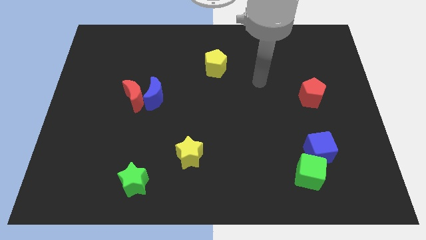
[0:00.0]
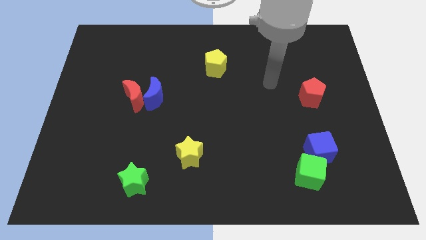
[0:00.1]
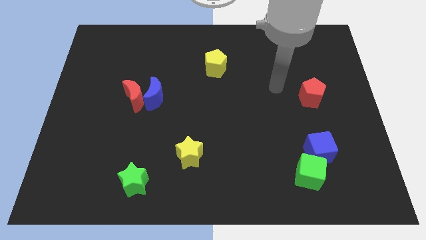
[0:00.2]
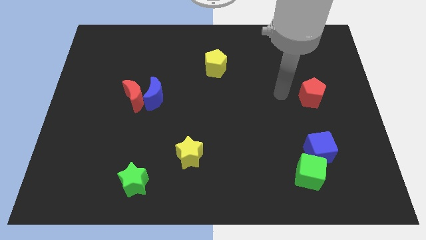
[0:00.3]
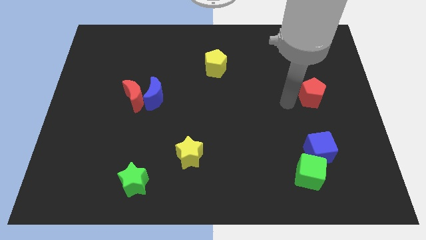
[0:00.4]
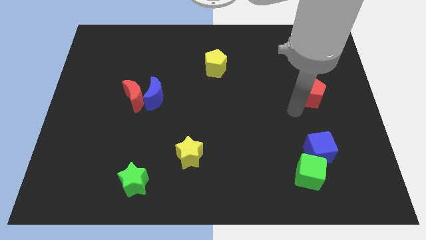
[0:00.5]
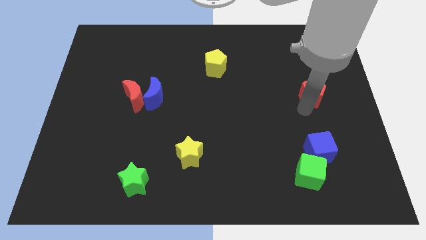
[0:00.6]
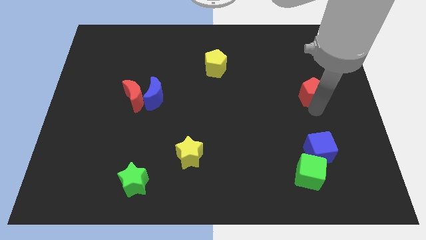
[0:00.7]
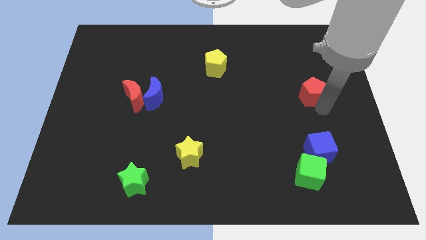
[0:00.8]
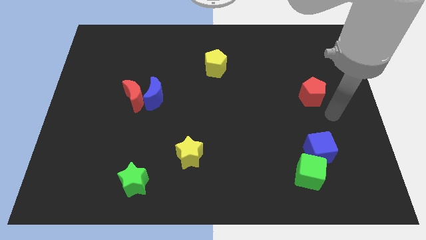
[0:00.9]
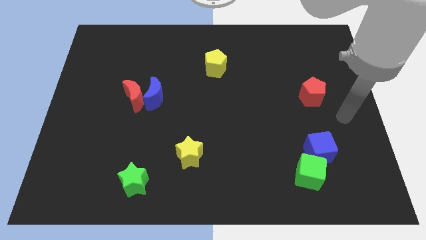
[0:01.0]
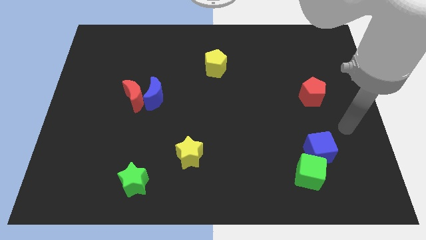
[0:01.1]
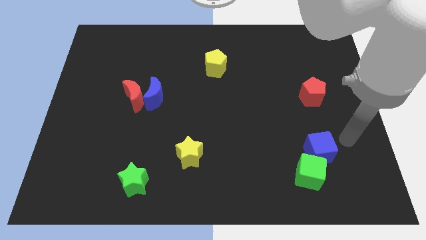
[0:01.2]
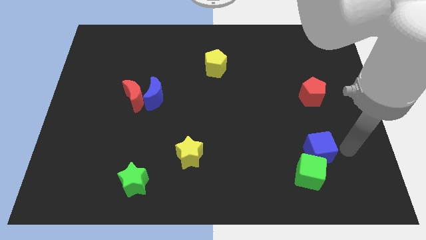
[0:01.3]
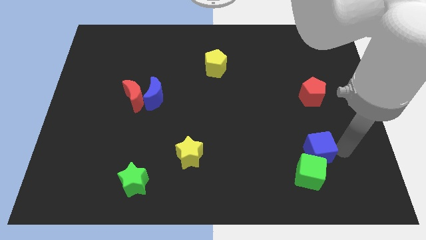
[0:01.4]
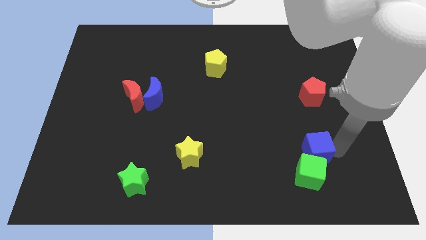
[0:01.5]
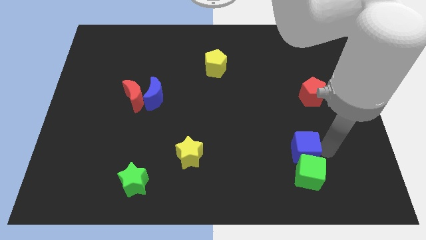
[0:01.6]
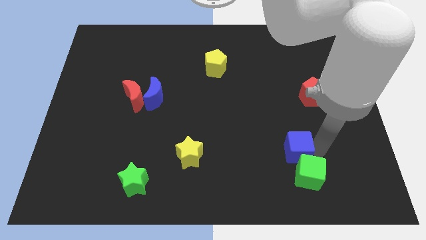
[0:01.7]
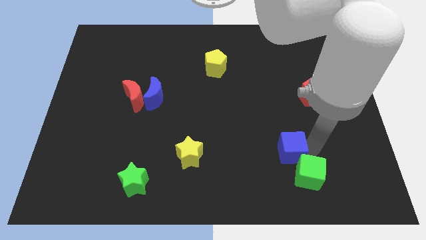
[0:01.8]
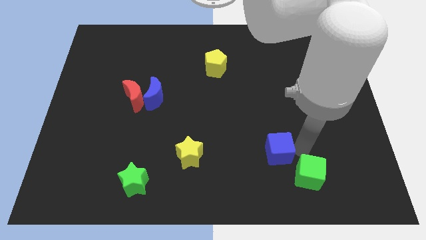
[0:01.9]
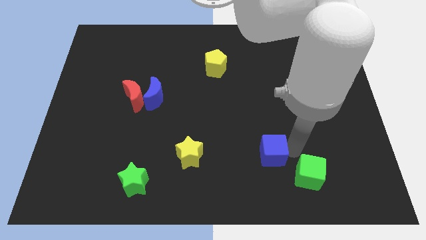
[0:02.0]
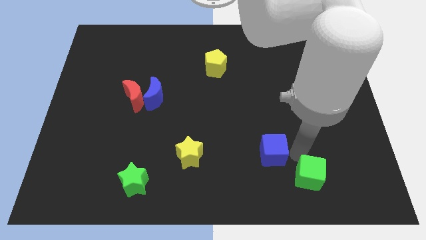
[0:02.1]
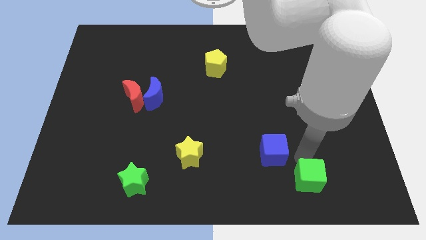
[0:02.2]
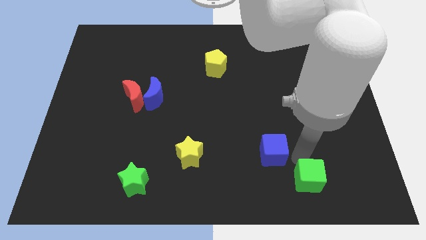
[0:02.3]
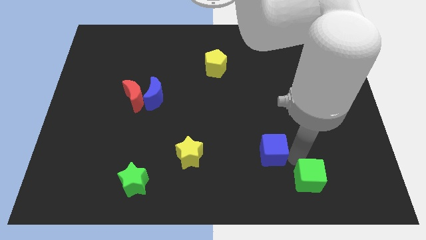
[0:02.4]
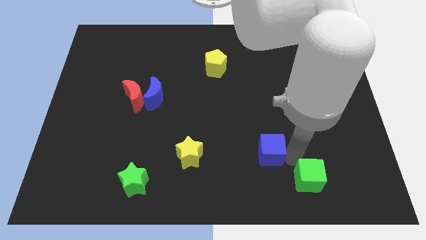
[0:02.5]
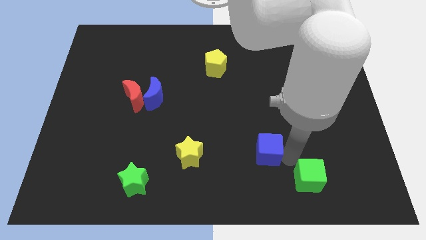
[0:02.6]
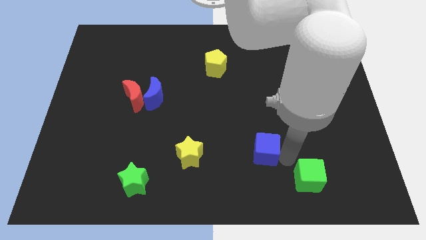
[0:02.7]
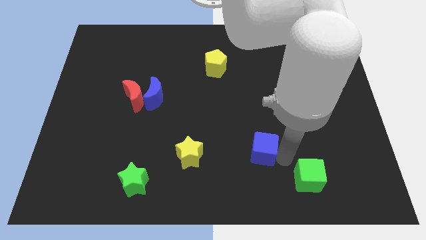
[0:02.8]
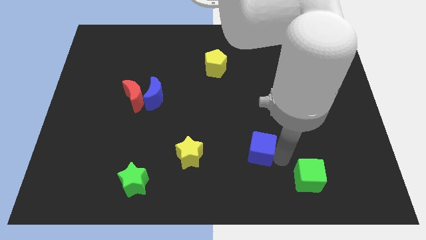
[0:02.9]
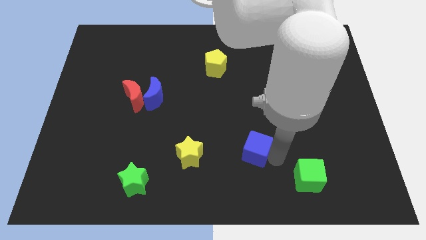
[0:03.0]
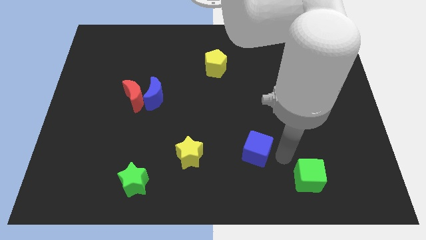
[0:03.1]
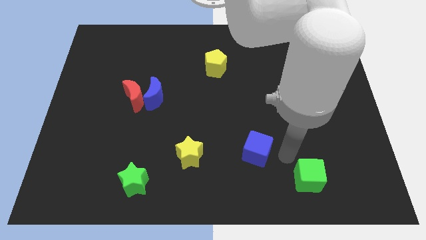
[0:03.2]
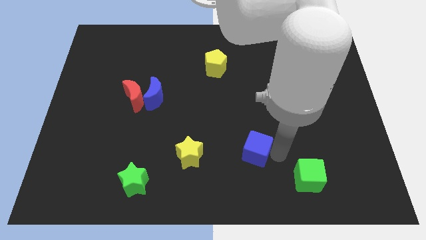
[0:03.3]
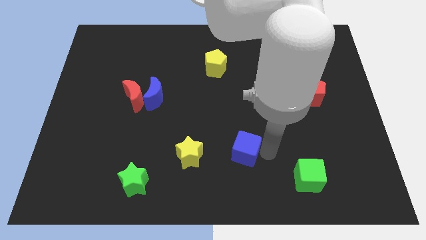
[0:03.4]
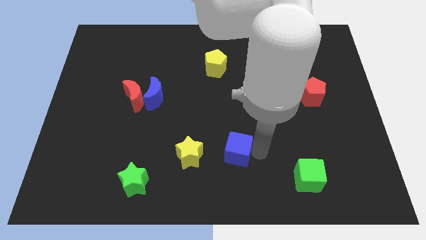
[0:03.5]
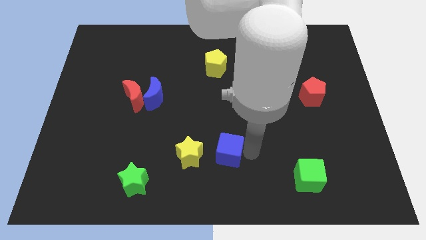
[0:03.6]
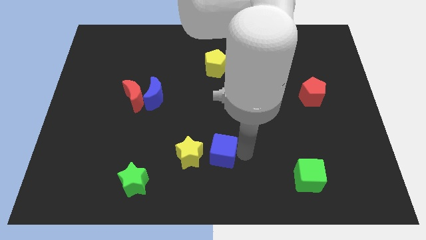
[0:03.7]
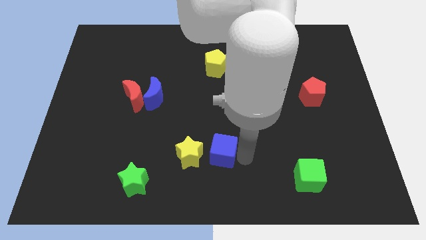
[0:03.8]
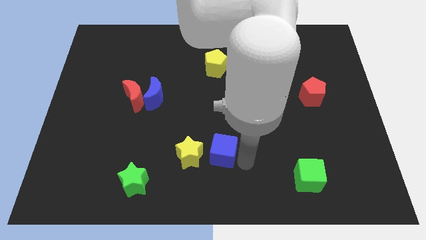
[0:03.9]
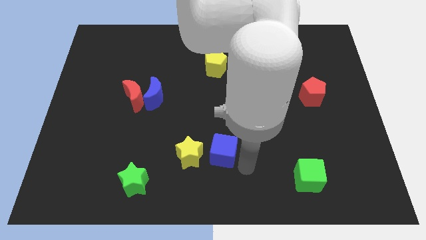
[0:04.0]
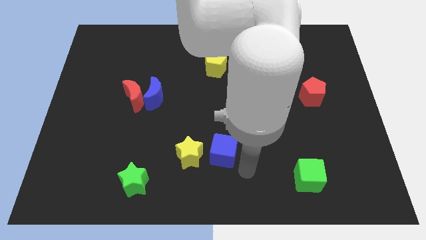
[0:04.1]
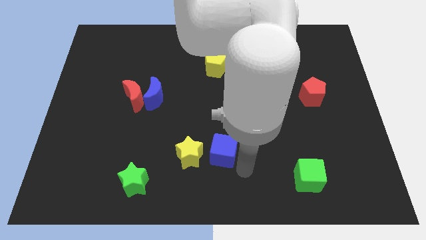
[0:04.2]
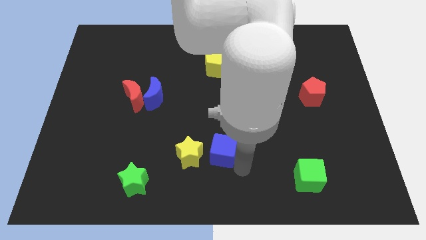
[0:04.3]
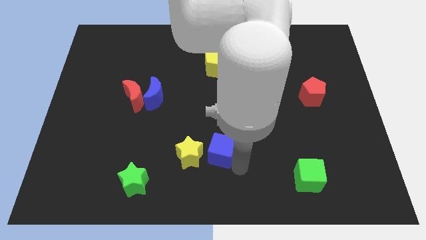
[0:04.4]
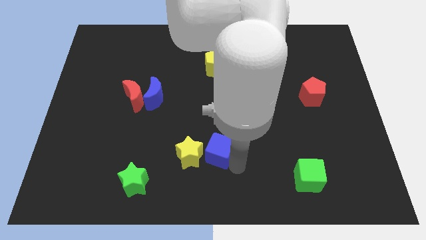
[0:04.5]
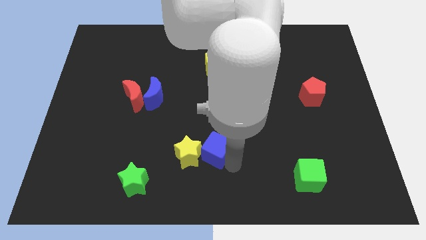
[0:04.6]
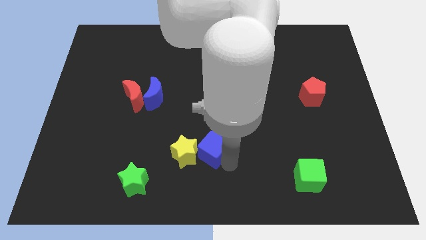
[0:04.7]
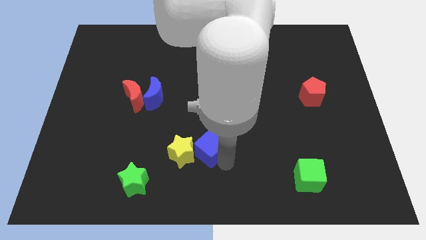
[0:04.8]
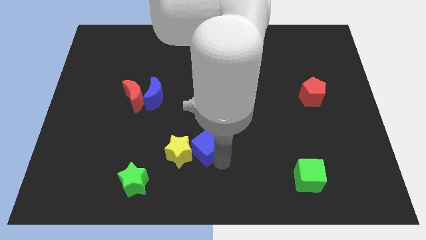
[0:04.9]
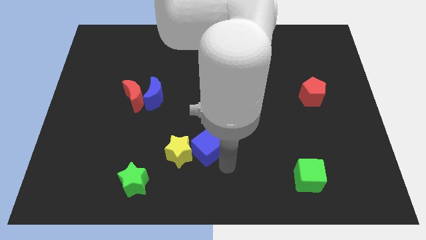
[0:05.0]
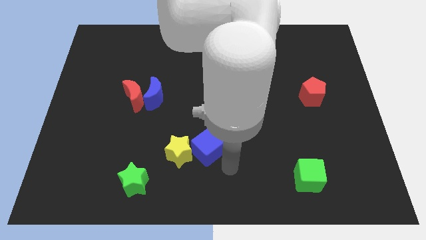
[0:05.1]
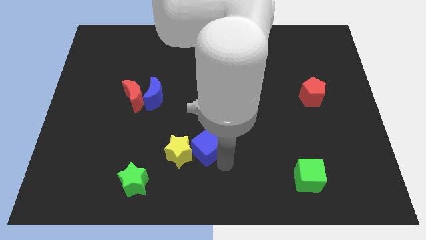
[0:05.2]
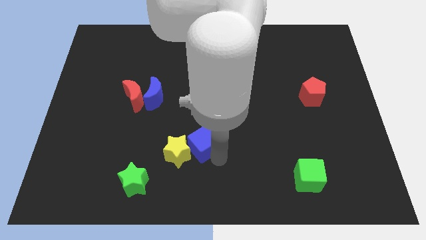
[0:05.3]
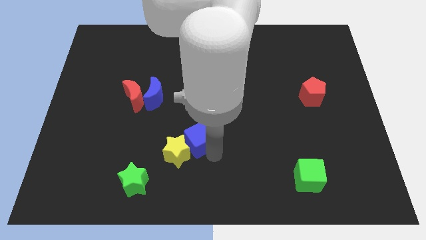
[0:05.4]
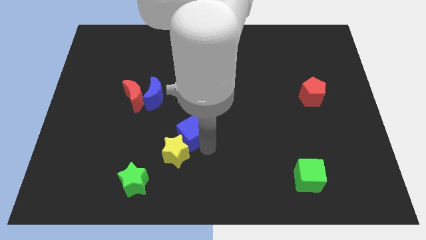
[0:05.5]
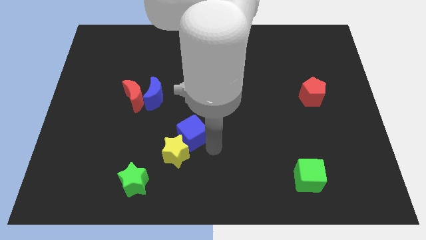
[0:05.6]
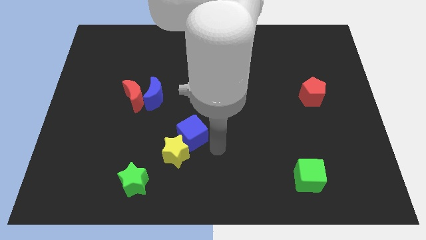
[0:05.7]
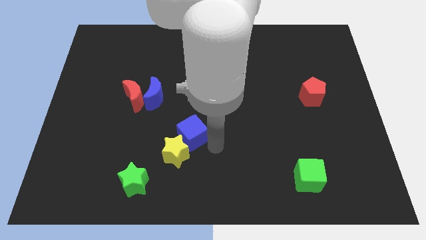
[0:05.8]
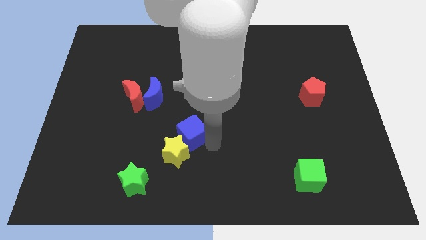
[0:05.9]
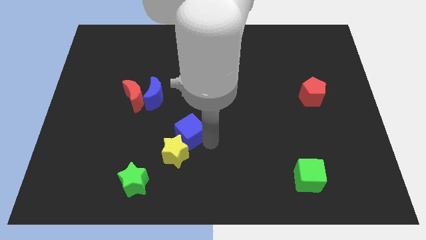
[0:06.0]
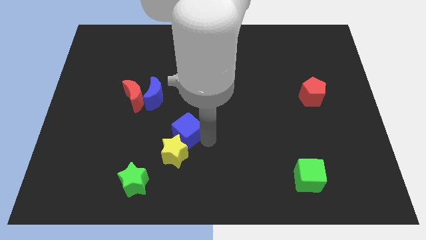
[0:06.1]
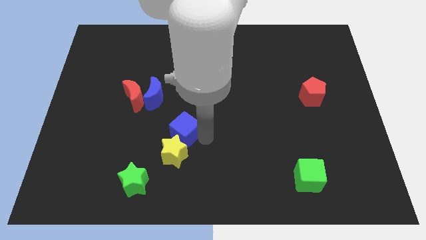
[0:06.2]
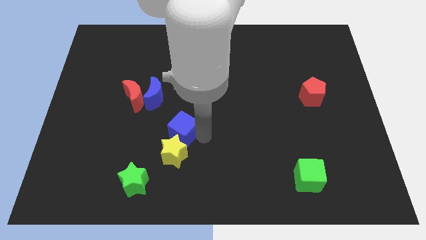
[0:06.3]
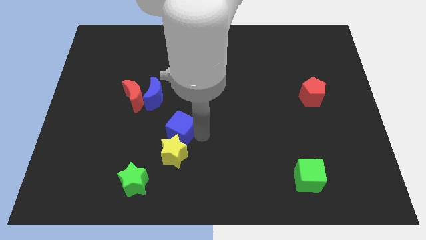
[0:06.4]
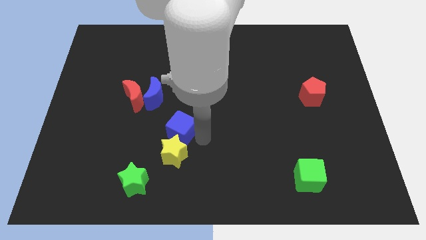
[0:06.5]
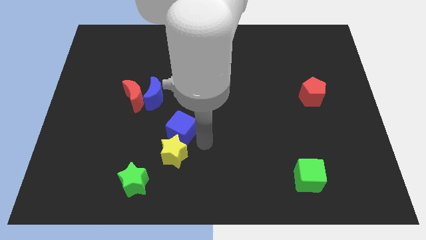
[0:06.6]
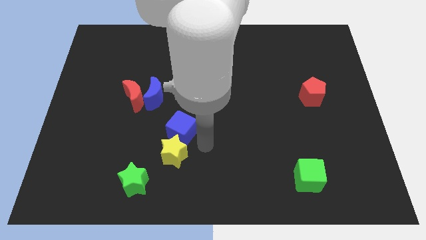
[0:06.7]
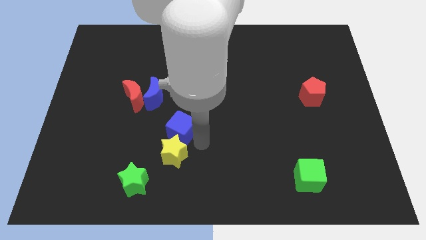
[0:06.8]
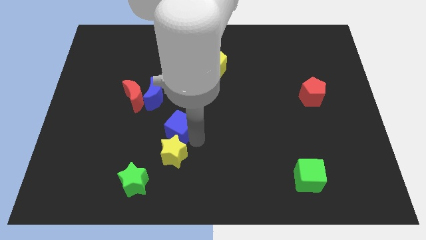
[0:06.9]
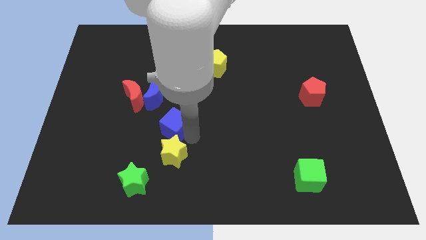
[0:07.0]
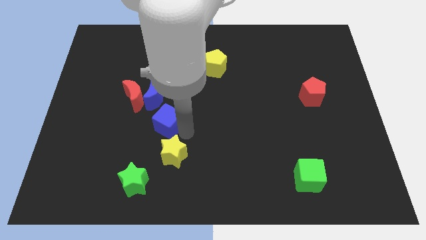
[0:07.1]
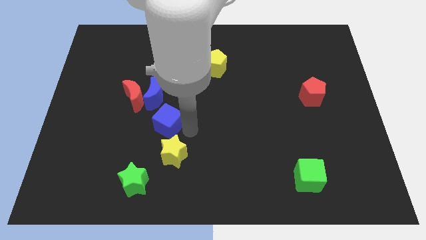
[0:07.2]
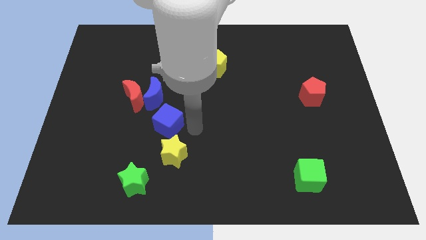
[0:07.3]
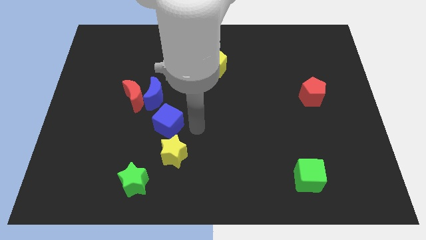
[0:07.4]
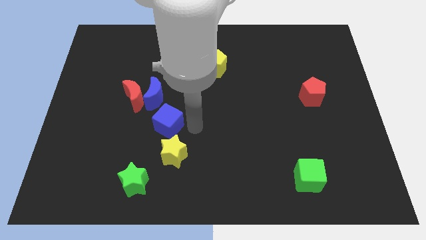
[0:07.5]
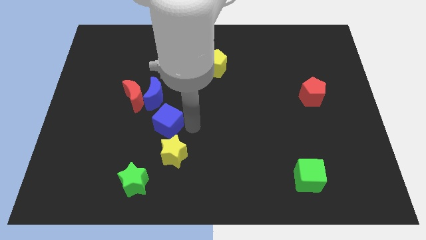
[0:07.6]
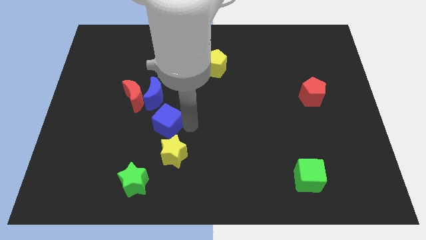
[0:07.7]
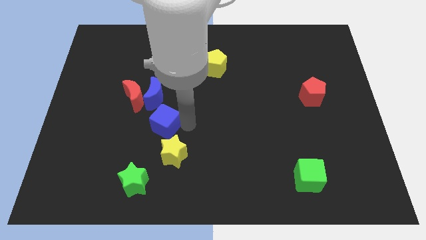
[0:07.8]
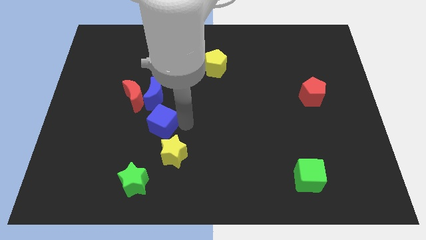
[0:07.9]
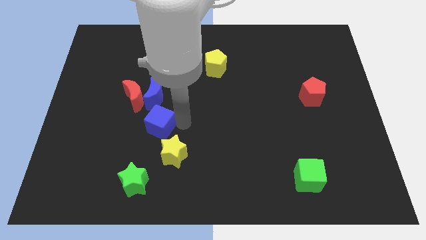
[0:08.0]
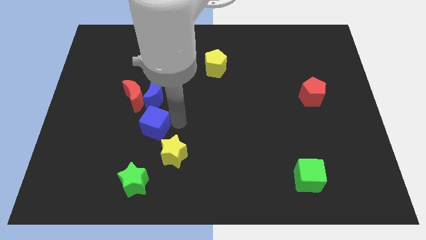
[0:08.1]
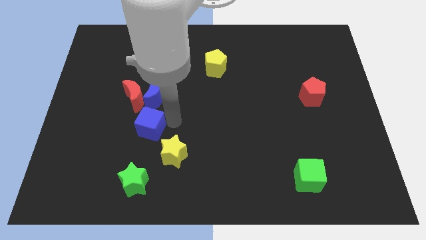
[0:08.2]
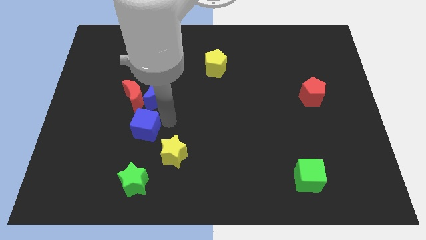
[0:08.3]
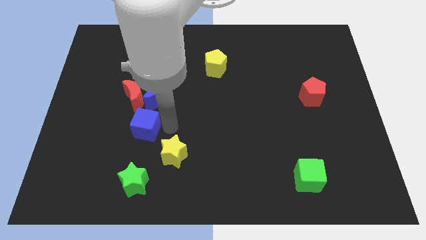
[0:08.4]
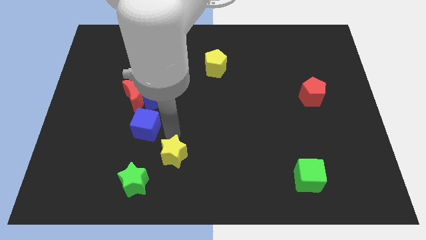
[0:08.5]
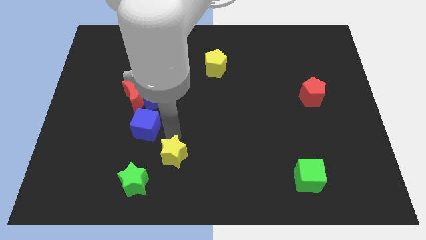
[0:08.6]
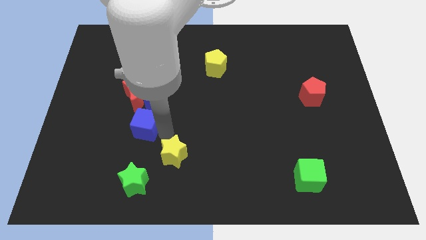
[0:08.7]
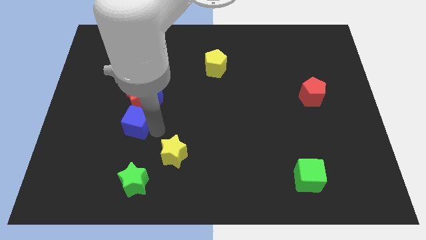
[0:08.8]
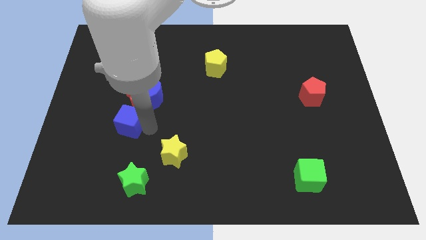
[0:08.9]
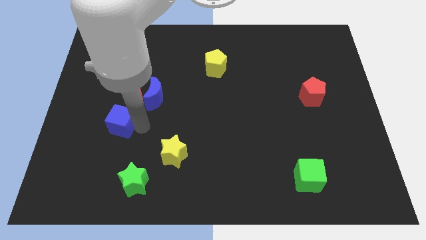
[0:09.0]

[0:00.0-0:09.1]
slide the blue cube to the bottom left side of the red moon
